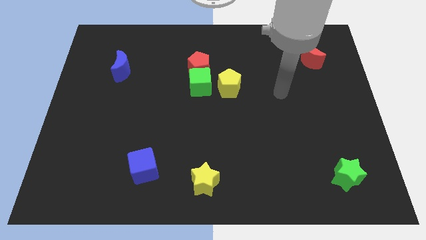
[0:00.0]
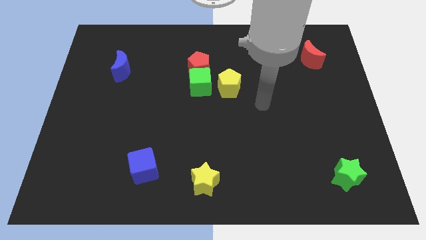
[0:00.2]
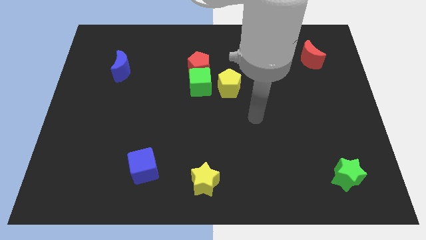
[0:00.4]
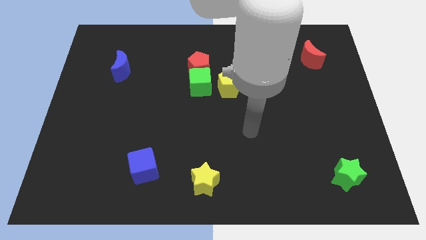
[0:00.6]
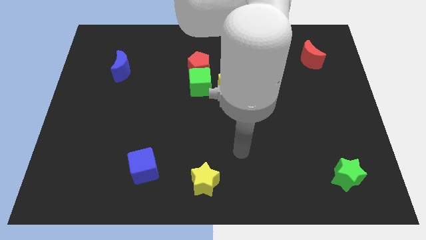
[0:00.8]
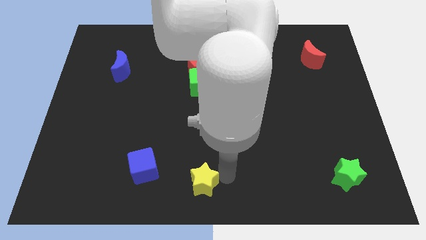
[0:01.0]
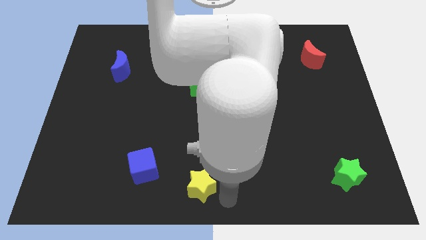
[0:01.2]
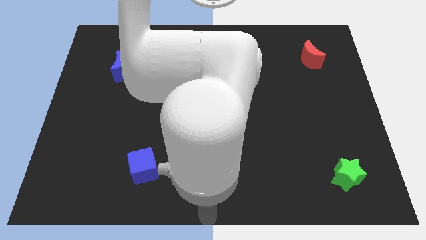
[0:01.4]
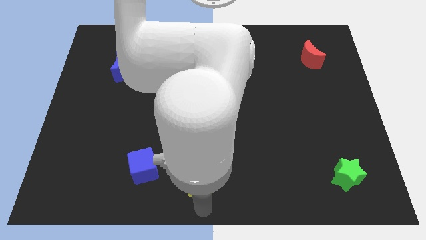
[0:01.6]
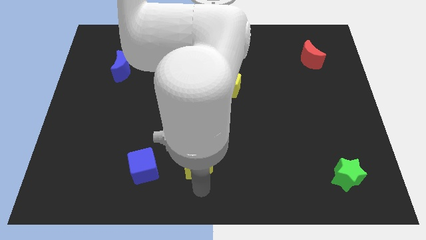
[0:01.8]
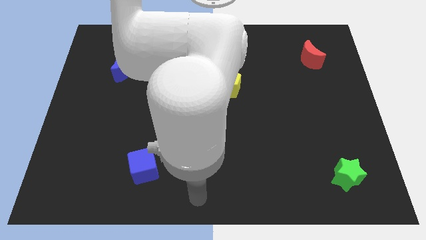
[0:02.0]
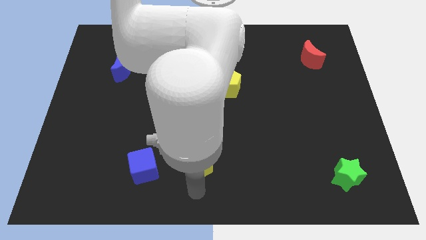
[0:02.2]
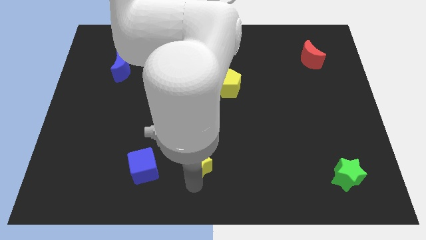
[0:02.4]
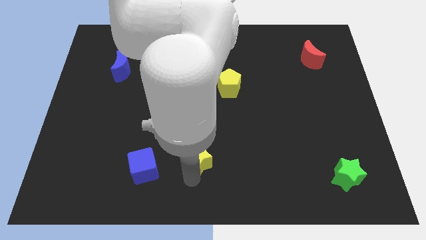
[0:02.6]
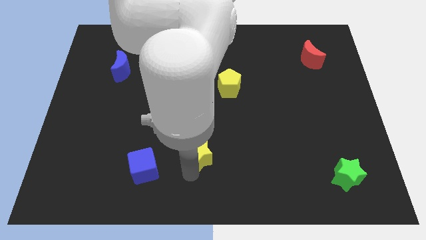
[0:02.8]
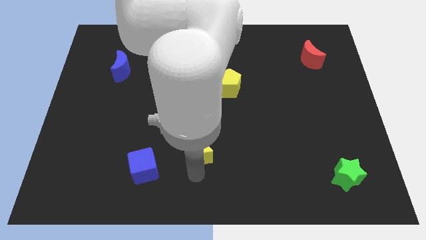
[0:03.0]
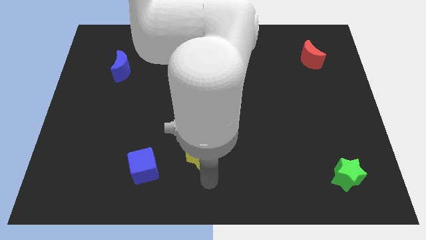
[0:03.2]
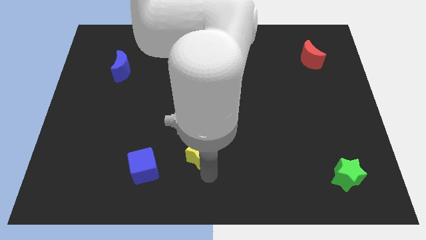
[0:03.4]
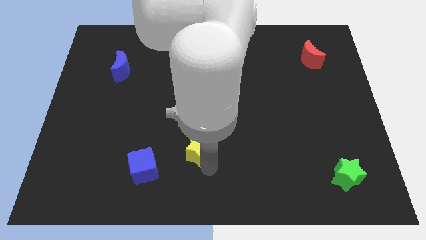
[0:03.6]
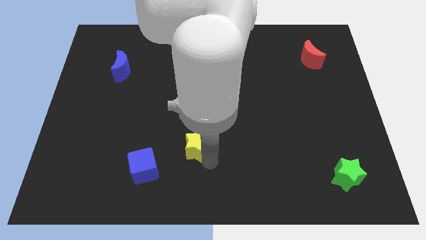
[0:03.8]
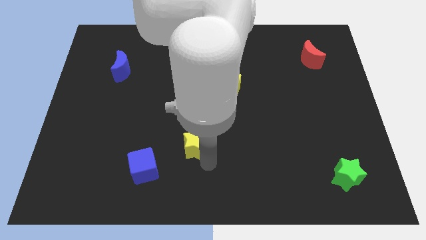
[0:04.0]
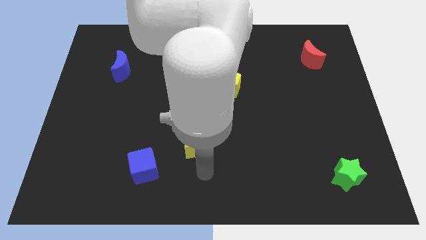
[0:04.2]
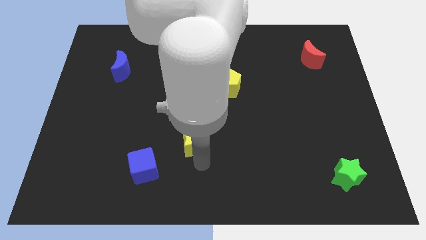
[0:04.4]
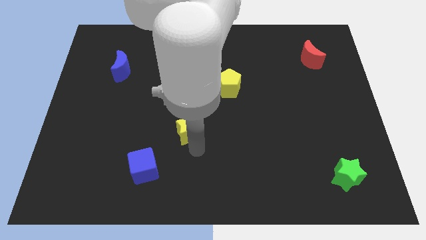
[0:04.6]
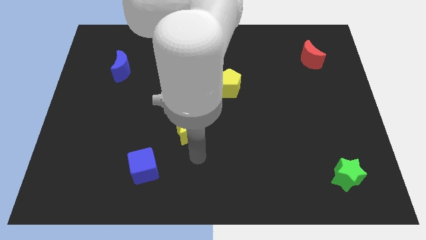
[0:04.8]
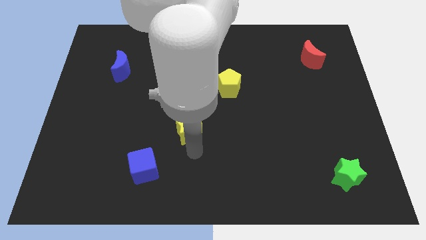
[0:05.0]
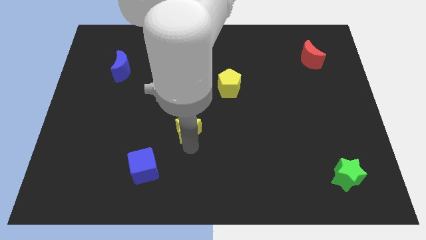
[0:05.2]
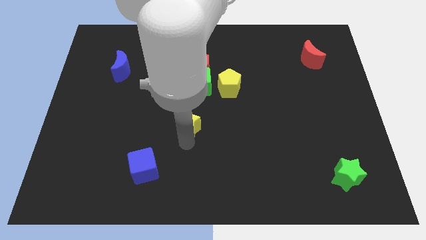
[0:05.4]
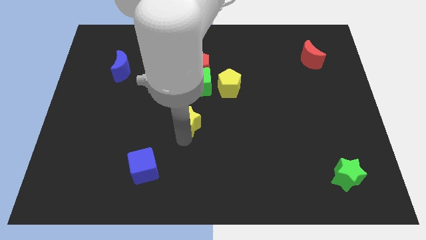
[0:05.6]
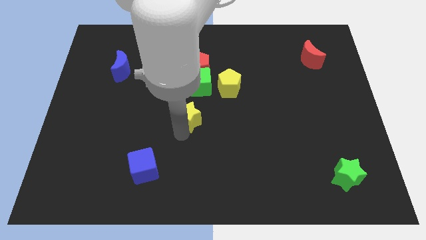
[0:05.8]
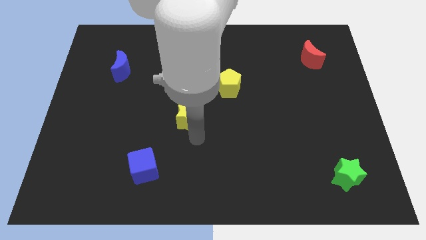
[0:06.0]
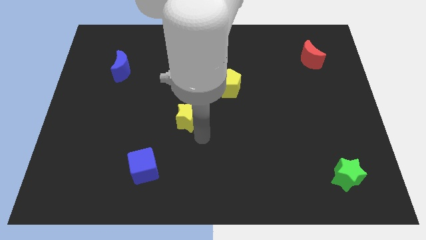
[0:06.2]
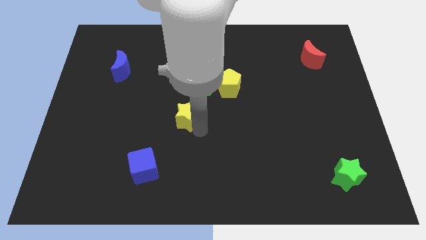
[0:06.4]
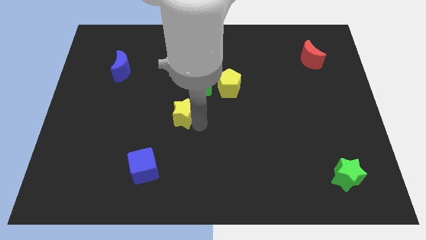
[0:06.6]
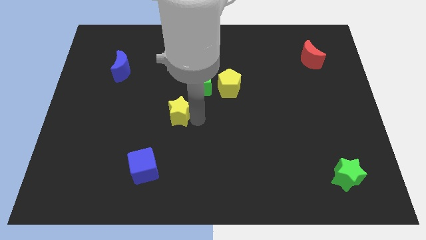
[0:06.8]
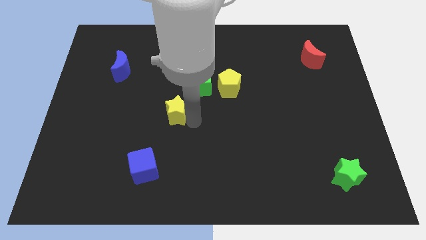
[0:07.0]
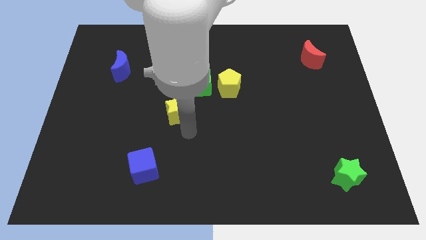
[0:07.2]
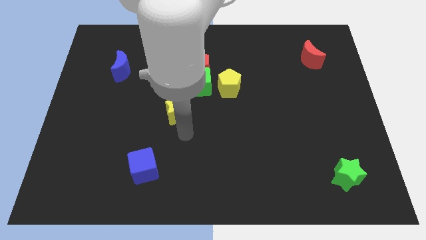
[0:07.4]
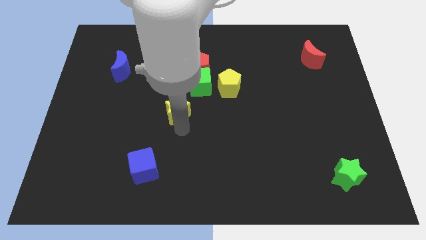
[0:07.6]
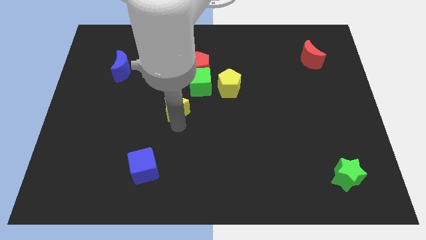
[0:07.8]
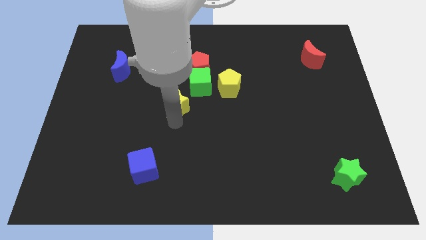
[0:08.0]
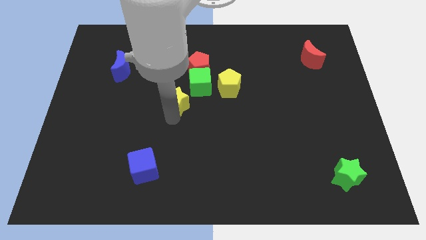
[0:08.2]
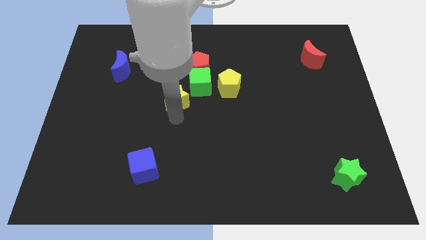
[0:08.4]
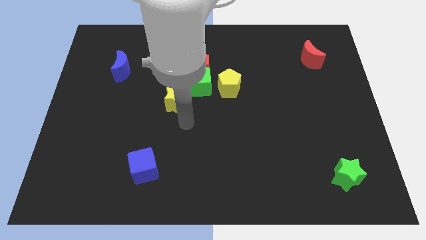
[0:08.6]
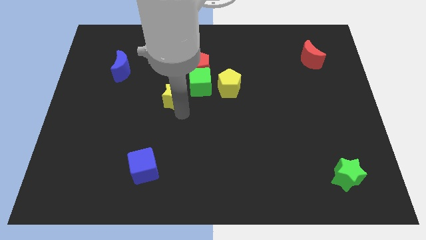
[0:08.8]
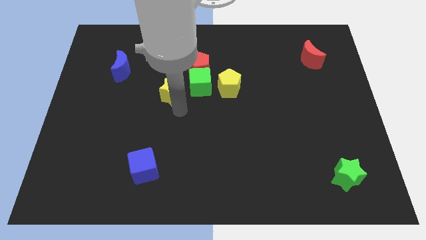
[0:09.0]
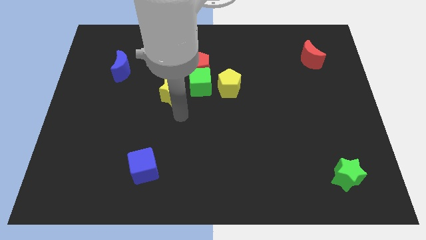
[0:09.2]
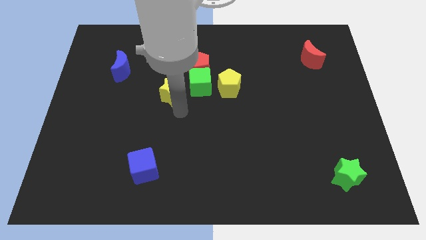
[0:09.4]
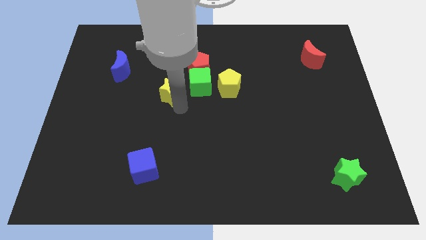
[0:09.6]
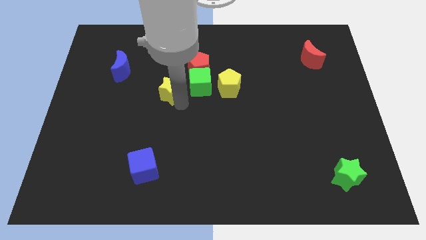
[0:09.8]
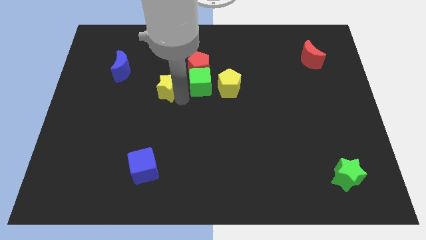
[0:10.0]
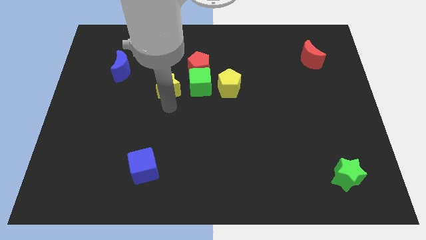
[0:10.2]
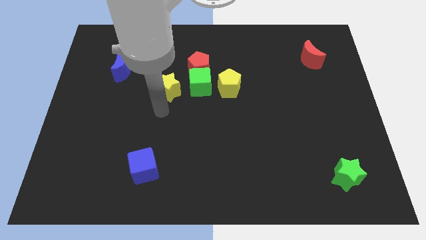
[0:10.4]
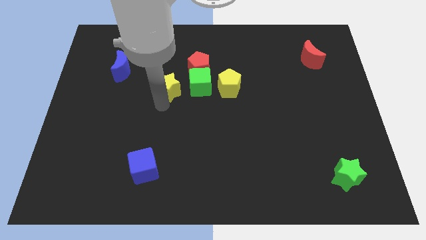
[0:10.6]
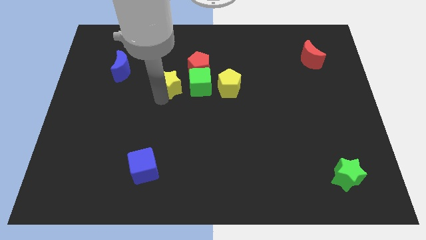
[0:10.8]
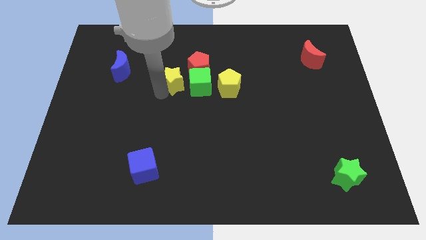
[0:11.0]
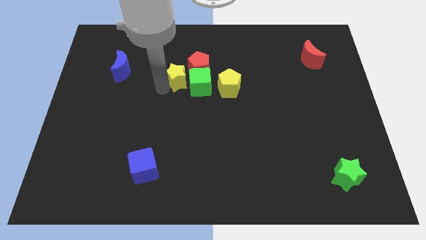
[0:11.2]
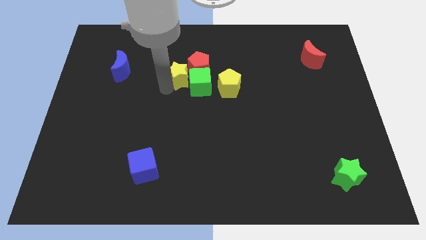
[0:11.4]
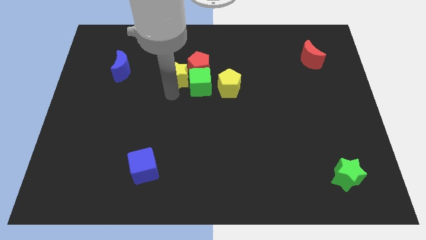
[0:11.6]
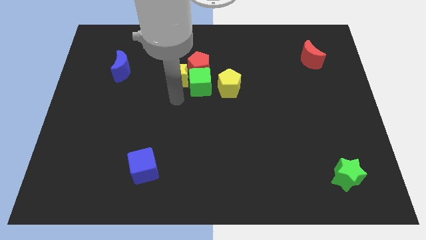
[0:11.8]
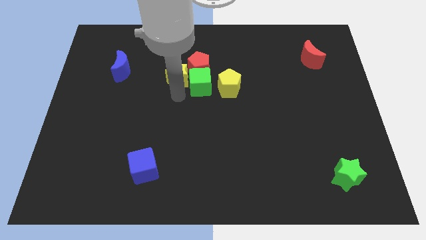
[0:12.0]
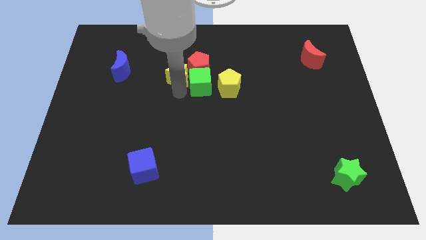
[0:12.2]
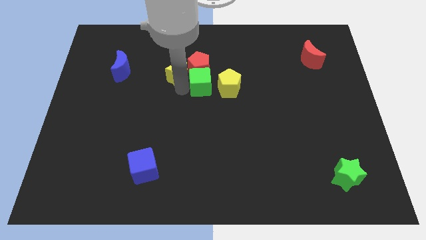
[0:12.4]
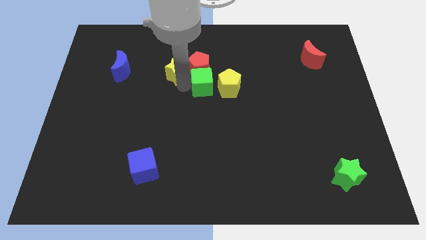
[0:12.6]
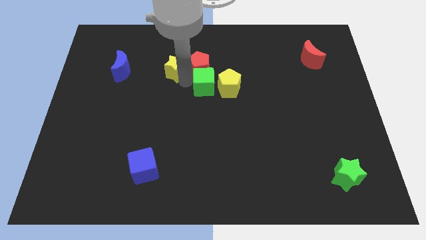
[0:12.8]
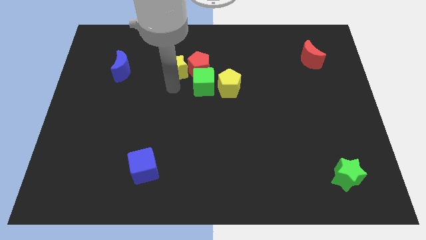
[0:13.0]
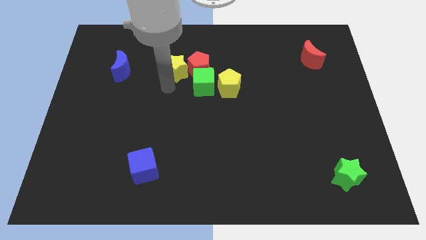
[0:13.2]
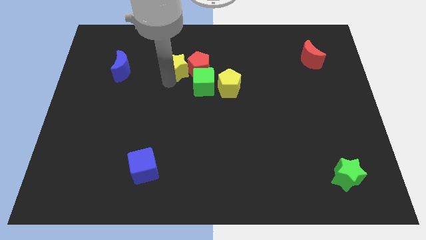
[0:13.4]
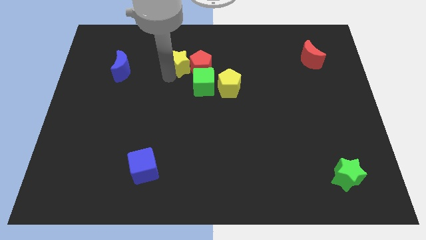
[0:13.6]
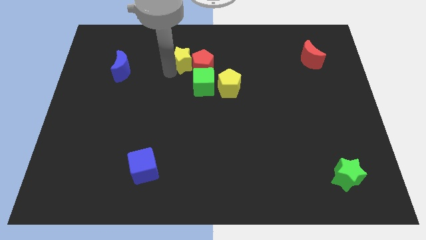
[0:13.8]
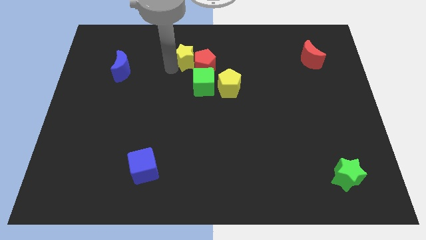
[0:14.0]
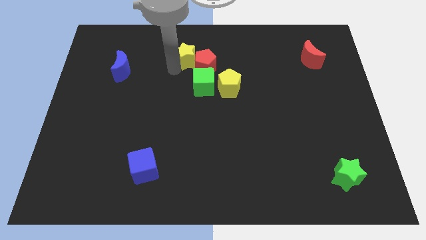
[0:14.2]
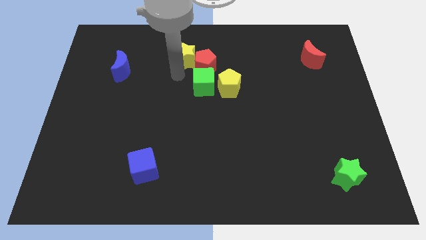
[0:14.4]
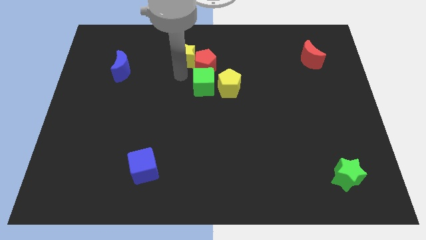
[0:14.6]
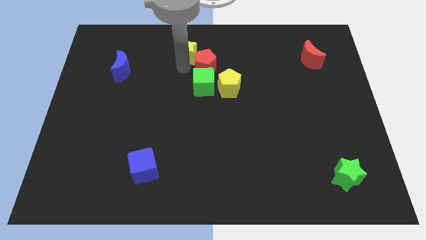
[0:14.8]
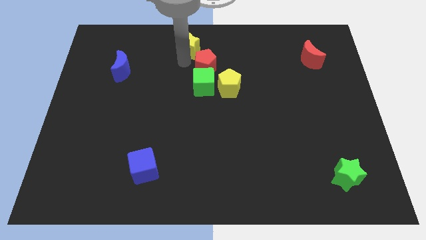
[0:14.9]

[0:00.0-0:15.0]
put the yellow star to the top side
